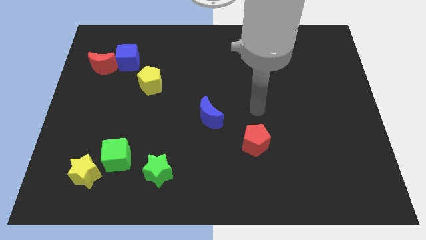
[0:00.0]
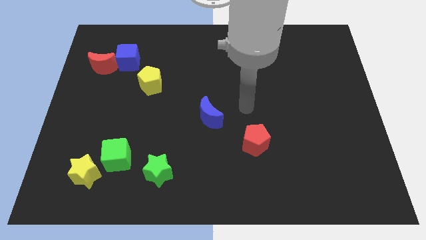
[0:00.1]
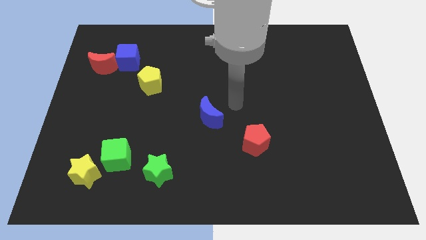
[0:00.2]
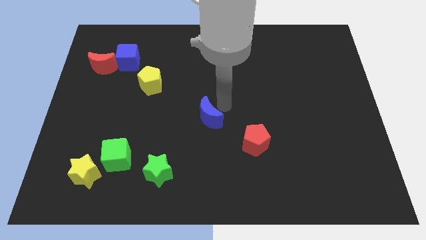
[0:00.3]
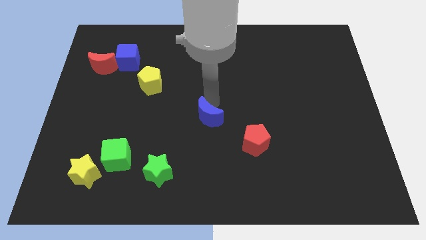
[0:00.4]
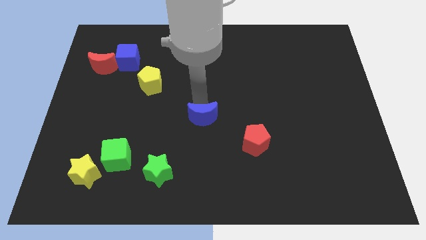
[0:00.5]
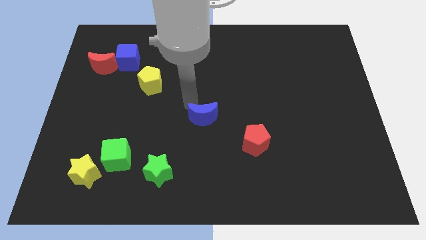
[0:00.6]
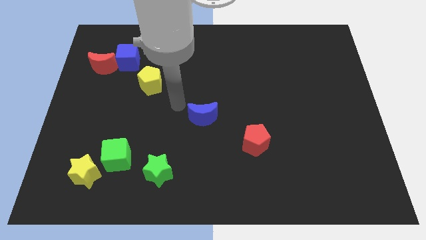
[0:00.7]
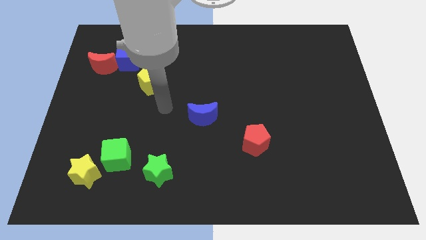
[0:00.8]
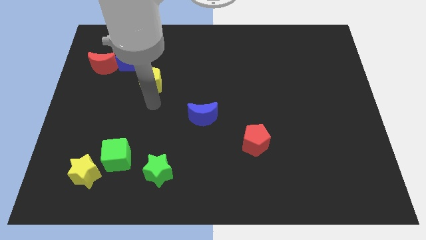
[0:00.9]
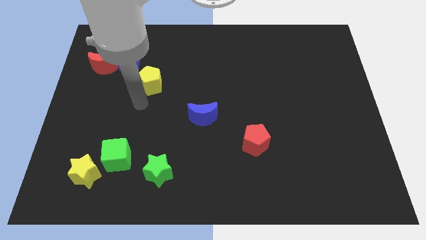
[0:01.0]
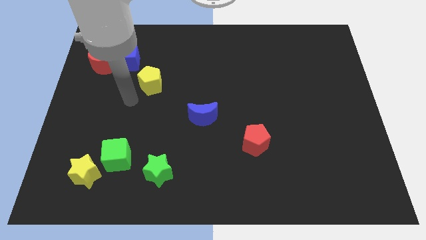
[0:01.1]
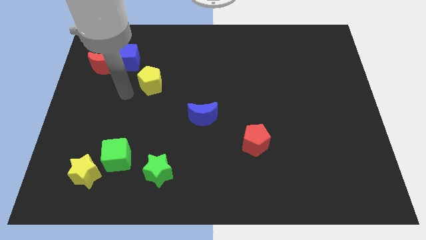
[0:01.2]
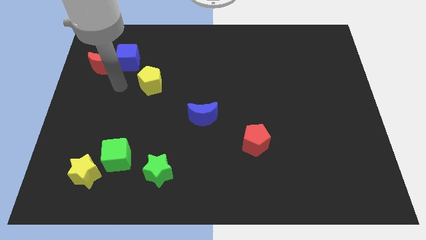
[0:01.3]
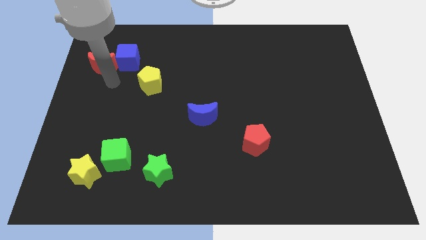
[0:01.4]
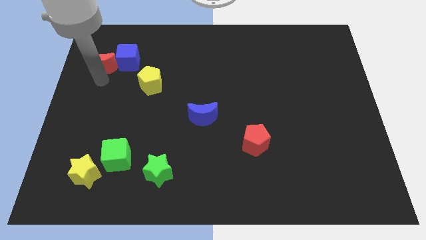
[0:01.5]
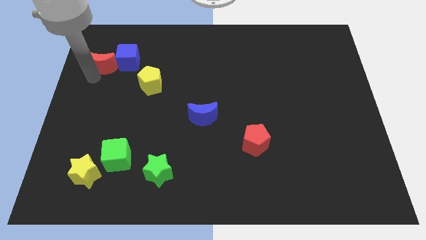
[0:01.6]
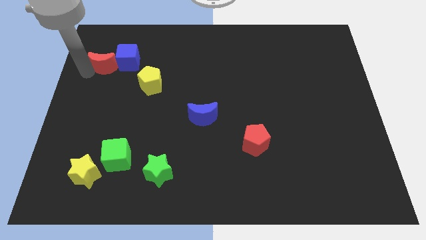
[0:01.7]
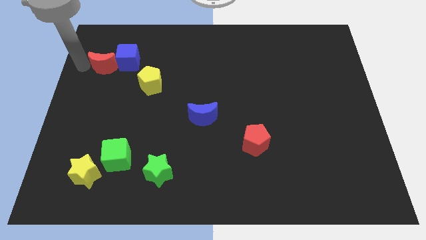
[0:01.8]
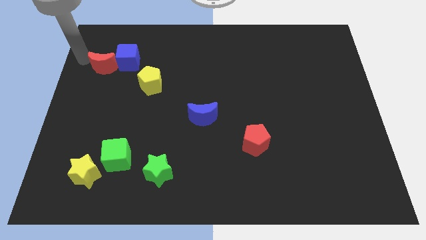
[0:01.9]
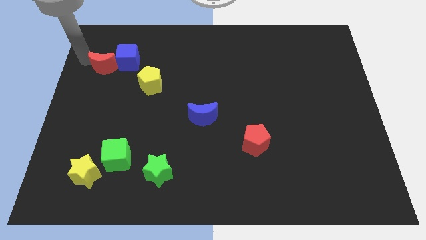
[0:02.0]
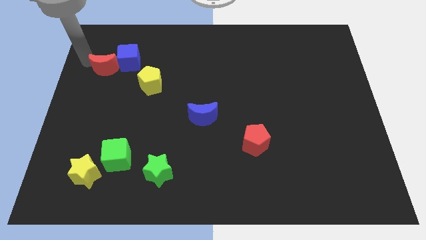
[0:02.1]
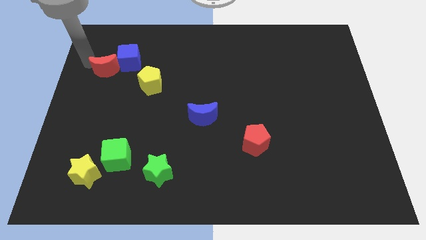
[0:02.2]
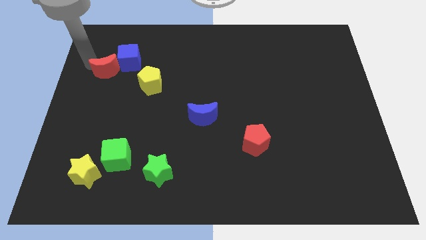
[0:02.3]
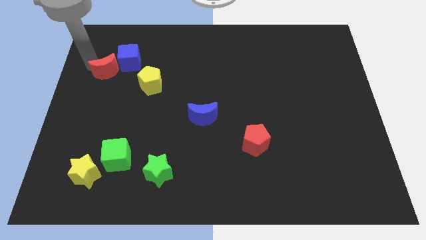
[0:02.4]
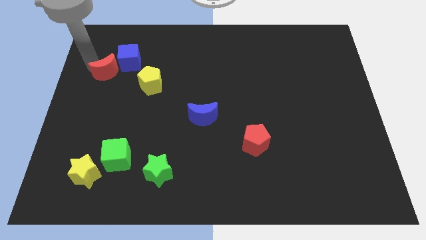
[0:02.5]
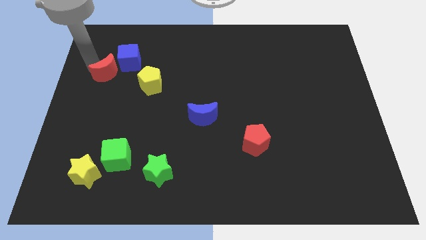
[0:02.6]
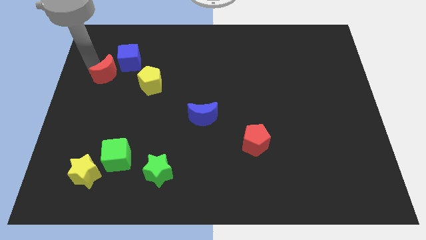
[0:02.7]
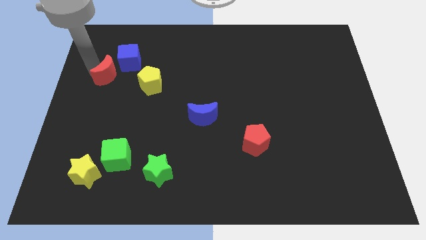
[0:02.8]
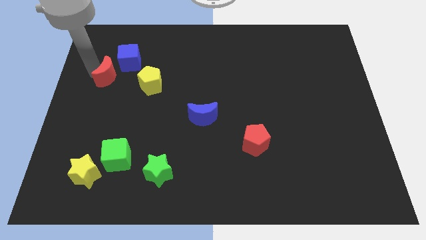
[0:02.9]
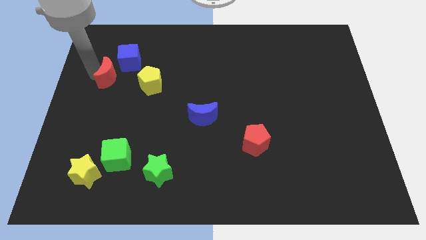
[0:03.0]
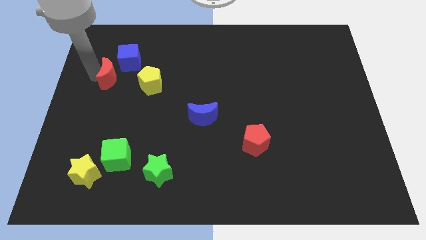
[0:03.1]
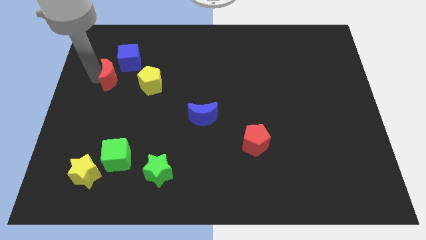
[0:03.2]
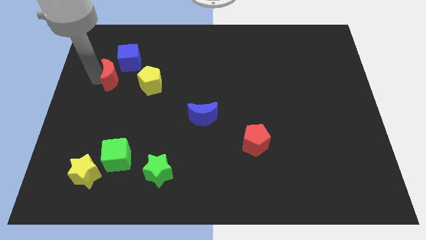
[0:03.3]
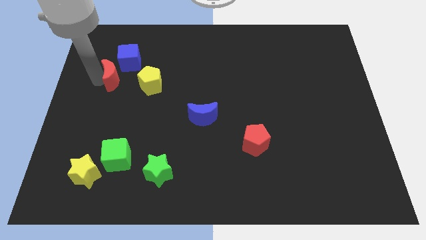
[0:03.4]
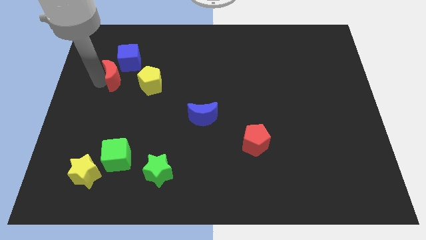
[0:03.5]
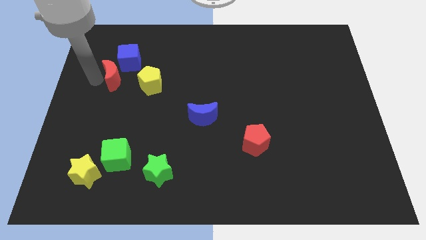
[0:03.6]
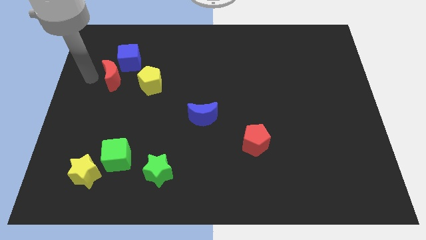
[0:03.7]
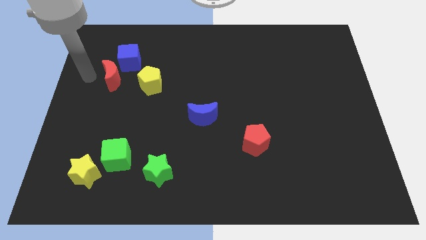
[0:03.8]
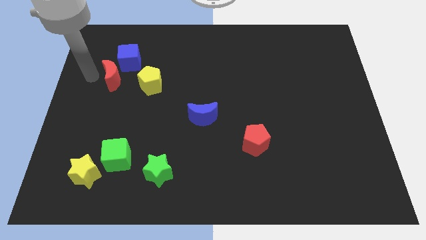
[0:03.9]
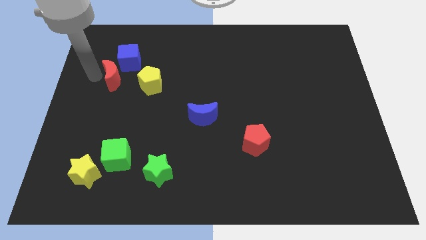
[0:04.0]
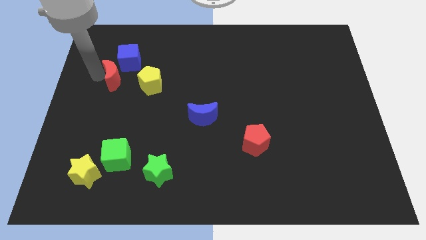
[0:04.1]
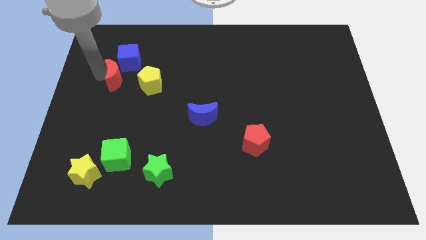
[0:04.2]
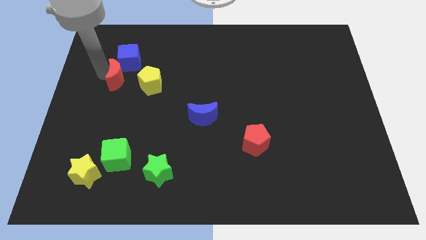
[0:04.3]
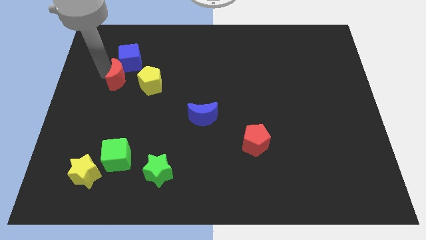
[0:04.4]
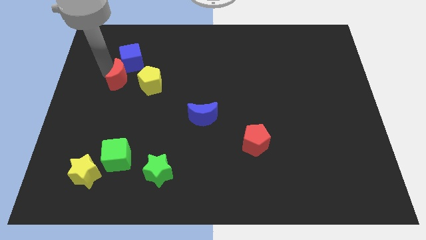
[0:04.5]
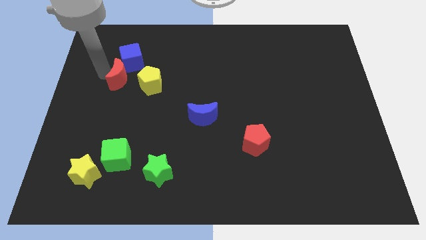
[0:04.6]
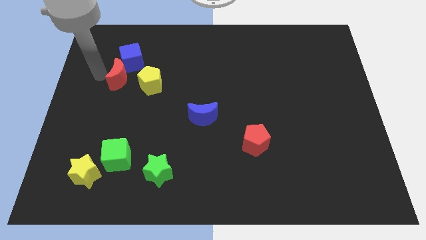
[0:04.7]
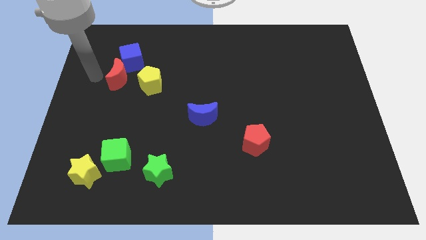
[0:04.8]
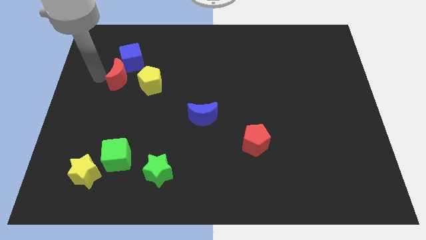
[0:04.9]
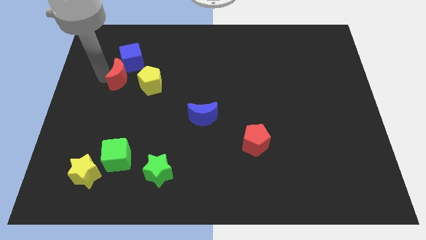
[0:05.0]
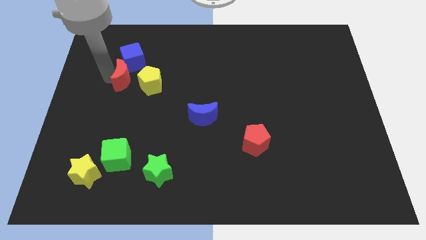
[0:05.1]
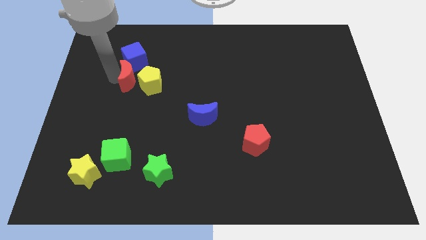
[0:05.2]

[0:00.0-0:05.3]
move the red moon close to the yellow pentagon

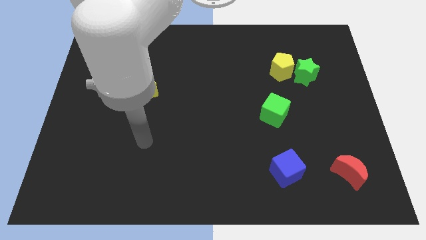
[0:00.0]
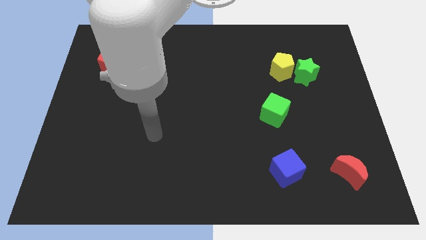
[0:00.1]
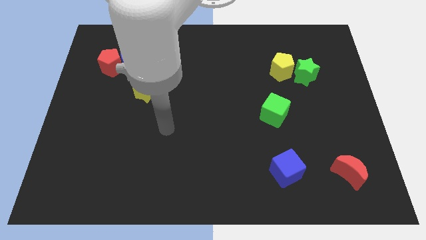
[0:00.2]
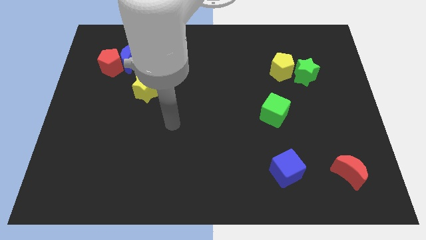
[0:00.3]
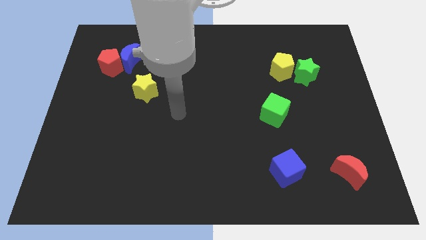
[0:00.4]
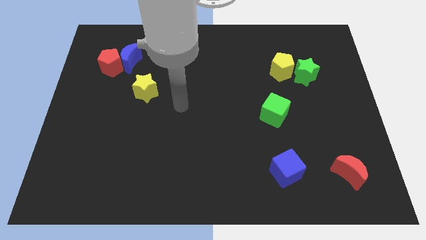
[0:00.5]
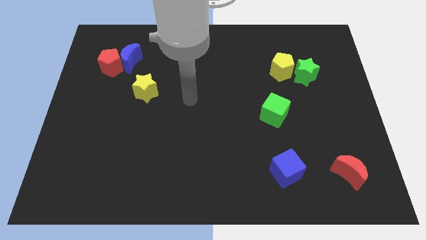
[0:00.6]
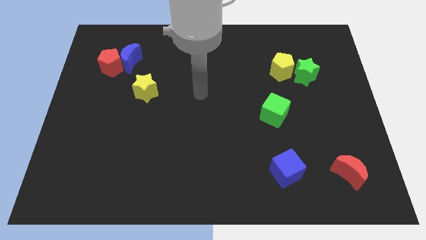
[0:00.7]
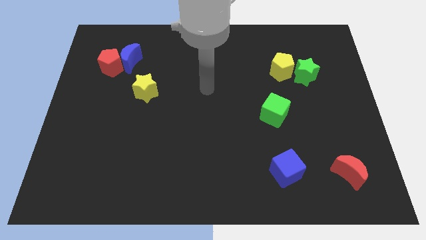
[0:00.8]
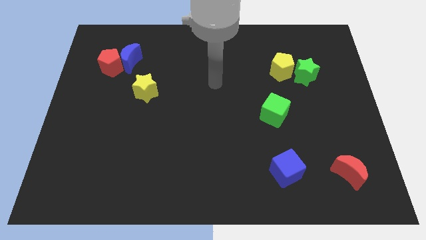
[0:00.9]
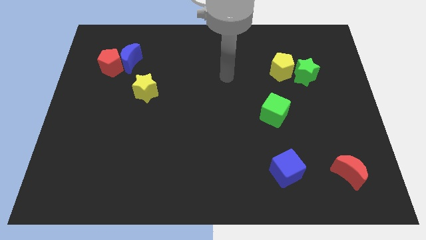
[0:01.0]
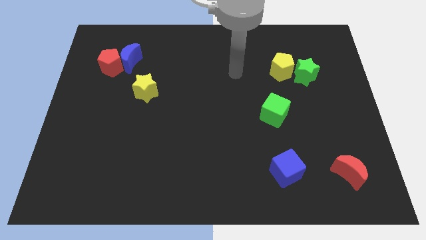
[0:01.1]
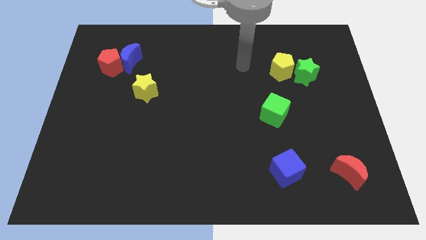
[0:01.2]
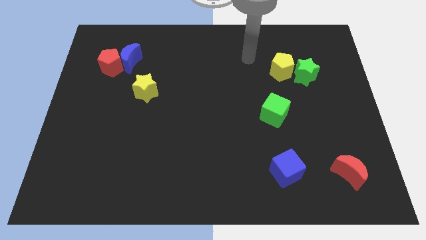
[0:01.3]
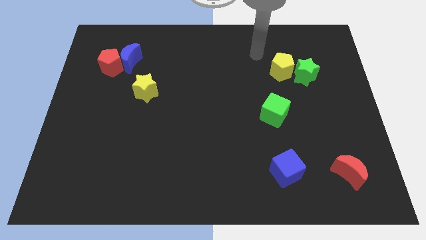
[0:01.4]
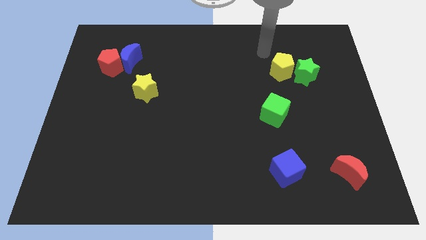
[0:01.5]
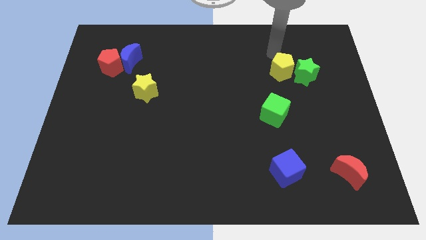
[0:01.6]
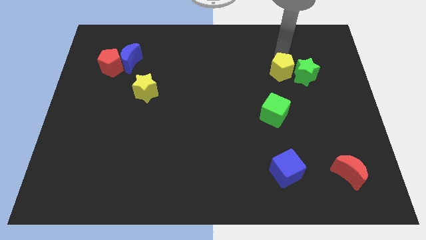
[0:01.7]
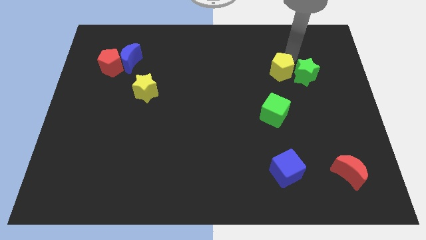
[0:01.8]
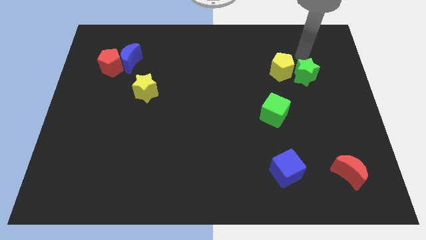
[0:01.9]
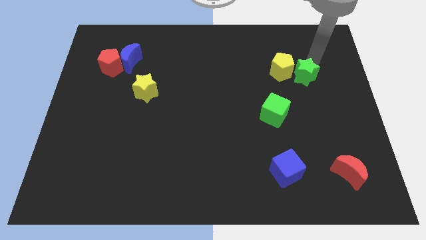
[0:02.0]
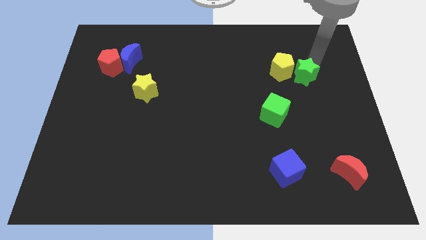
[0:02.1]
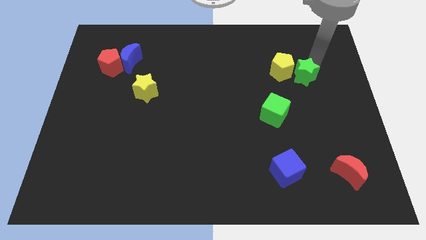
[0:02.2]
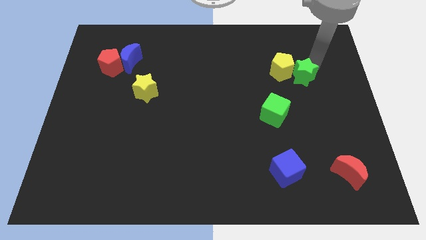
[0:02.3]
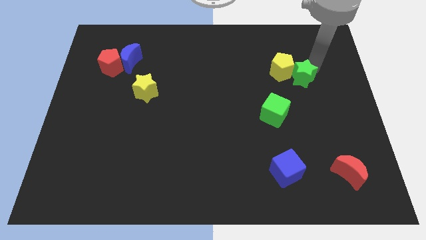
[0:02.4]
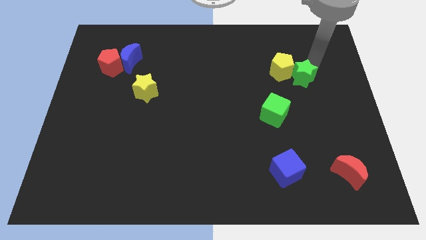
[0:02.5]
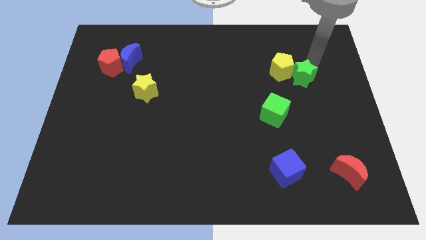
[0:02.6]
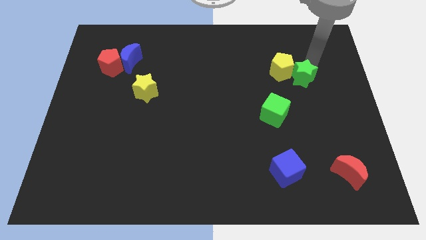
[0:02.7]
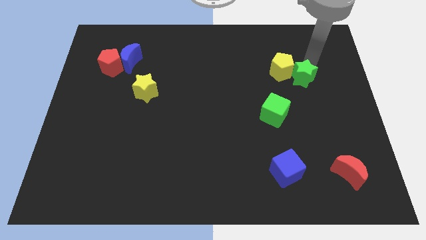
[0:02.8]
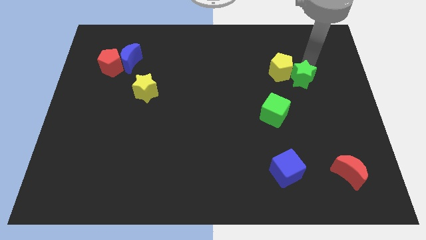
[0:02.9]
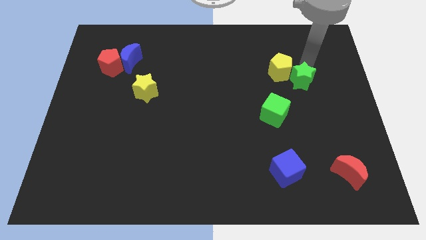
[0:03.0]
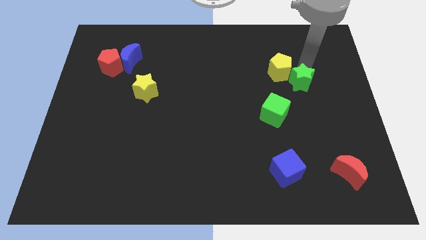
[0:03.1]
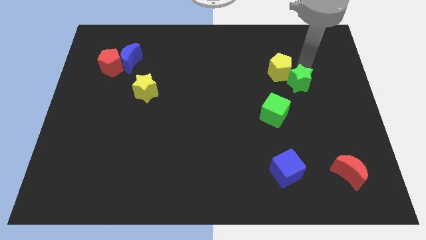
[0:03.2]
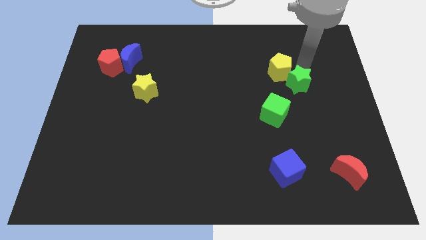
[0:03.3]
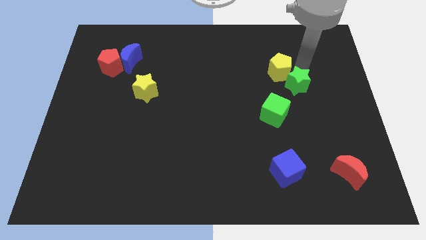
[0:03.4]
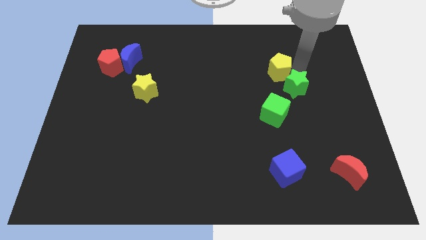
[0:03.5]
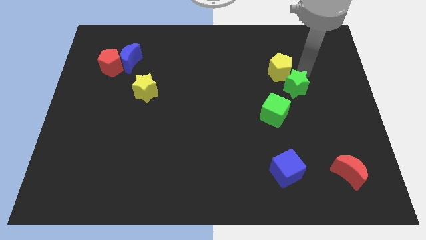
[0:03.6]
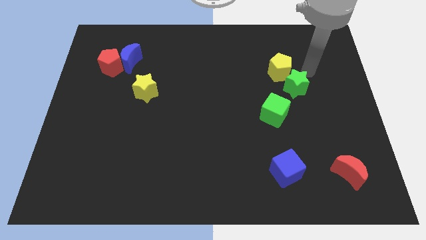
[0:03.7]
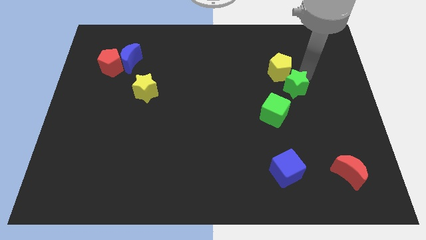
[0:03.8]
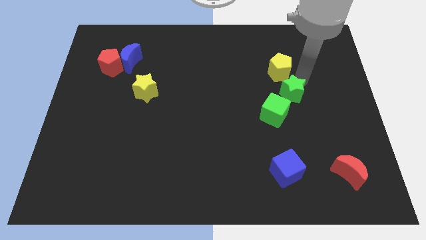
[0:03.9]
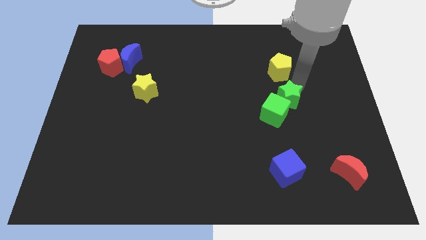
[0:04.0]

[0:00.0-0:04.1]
put the green star to the green cube
